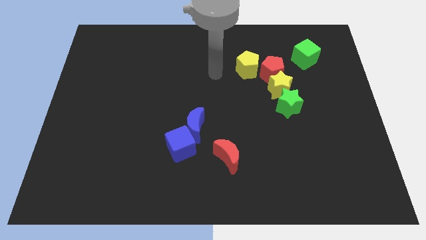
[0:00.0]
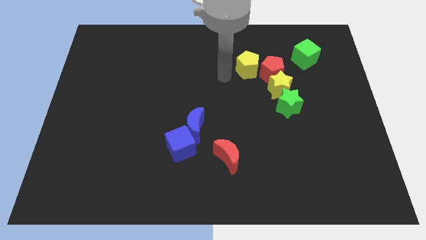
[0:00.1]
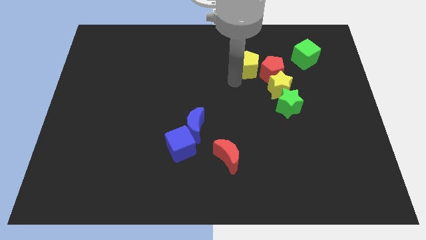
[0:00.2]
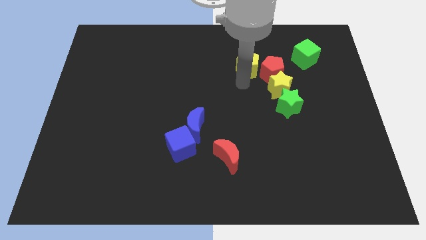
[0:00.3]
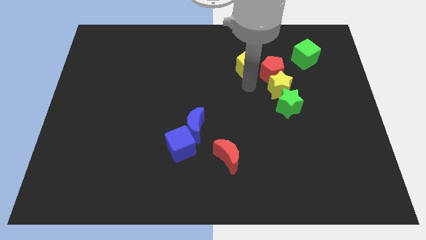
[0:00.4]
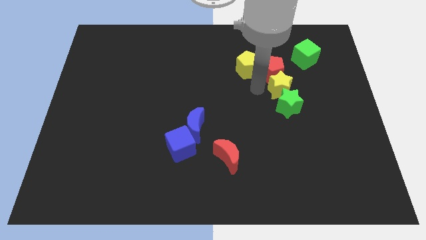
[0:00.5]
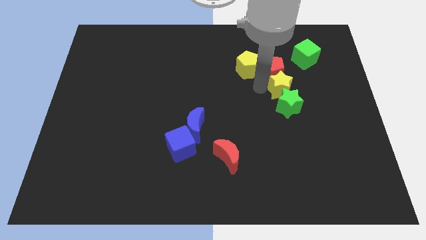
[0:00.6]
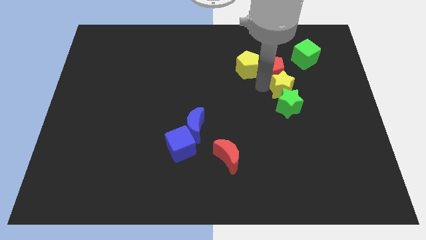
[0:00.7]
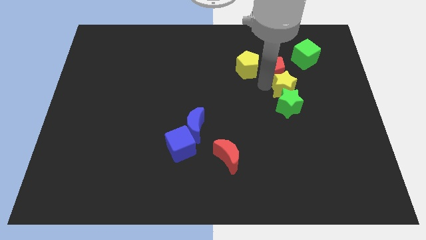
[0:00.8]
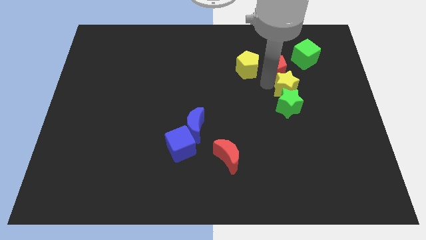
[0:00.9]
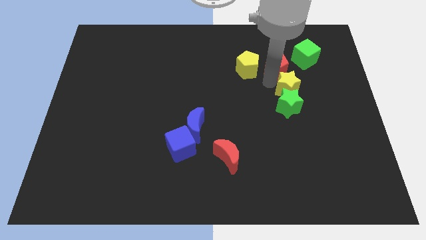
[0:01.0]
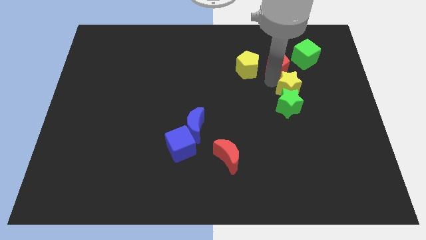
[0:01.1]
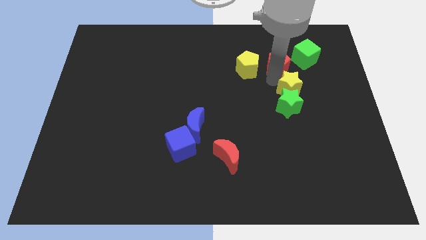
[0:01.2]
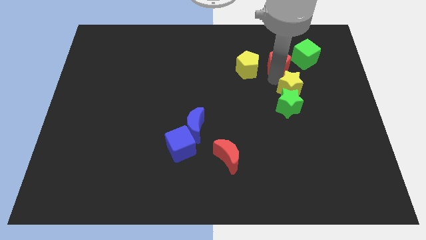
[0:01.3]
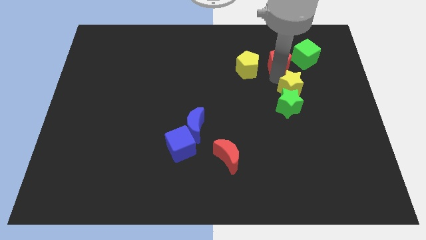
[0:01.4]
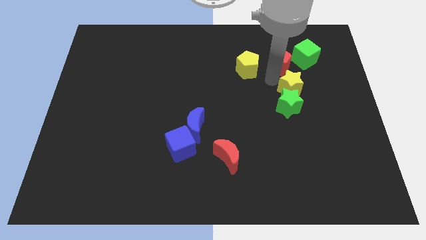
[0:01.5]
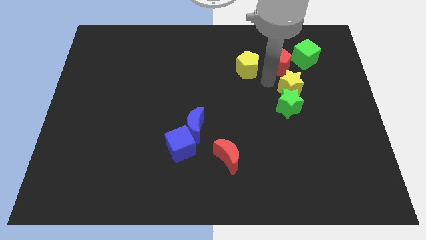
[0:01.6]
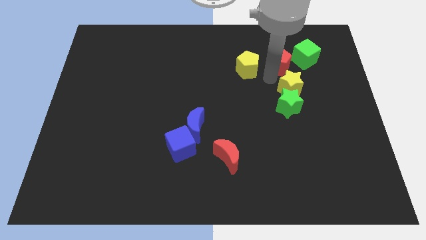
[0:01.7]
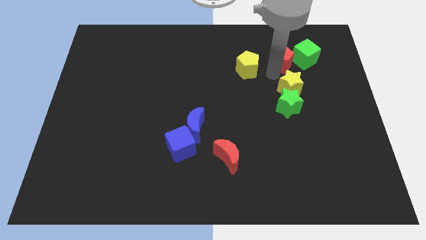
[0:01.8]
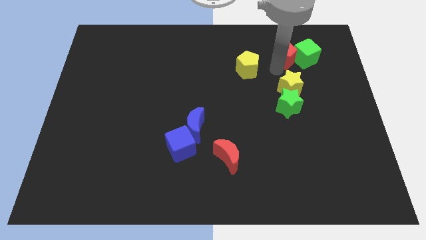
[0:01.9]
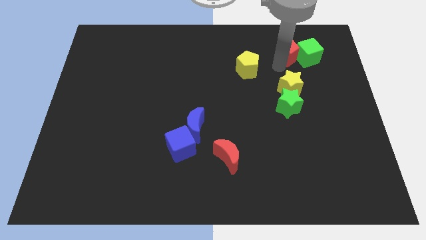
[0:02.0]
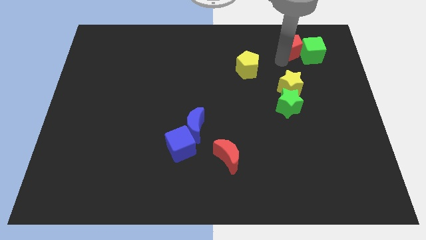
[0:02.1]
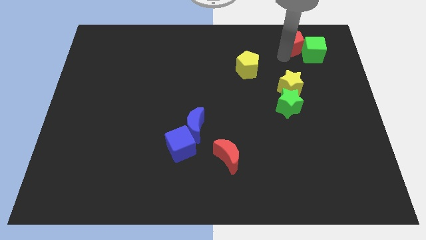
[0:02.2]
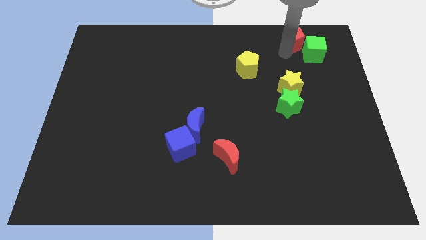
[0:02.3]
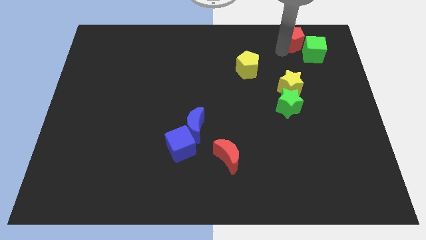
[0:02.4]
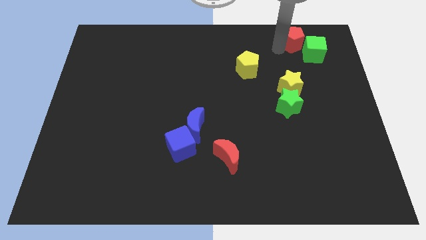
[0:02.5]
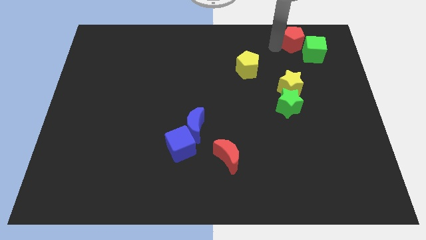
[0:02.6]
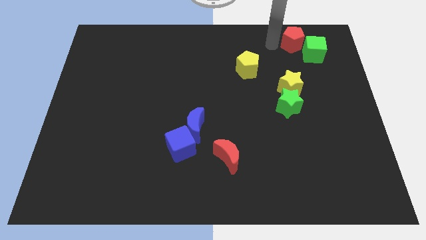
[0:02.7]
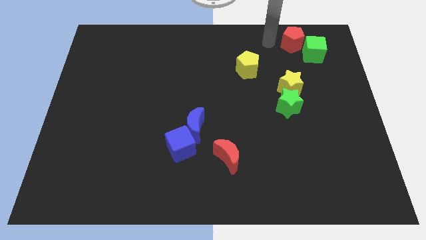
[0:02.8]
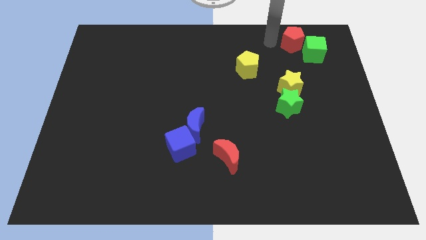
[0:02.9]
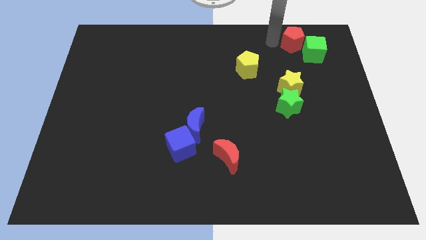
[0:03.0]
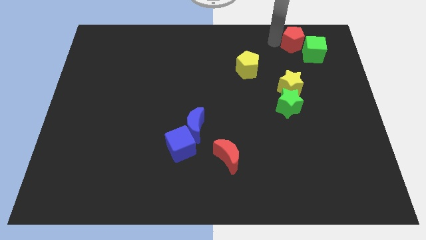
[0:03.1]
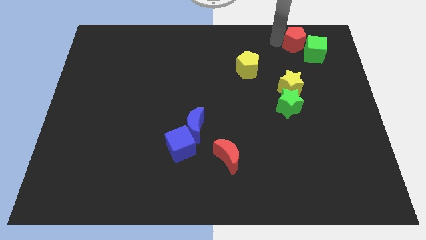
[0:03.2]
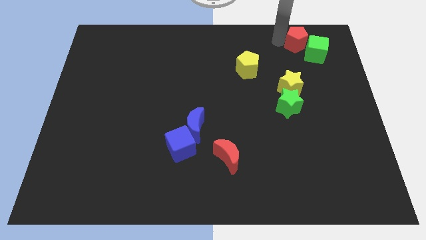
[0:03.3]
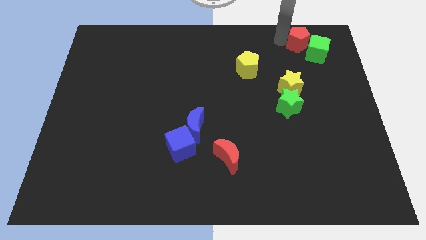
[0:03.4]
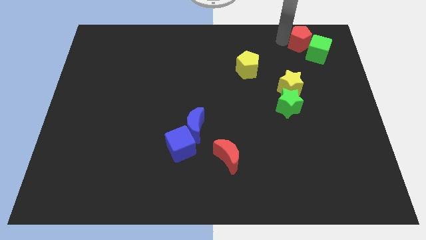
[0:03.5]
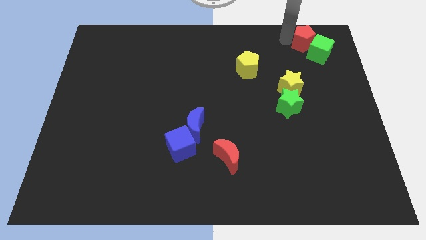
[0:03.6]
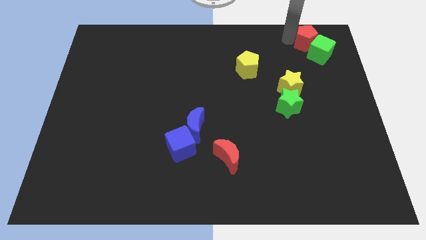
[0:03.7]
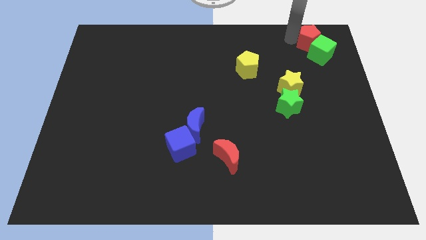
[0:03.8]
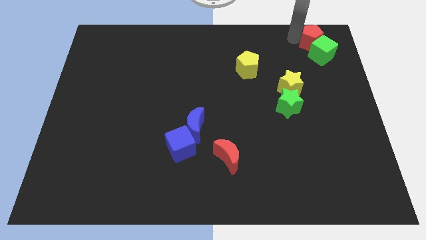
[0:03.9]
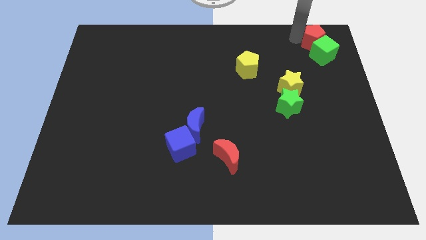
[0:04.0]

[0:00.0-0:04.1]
slide the red pentagon to the upper right corner

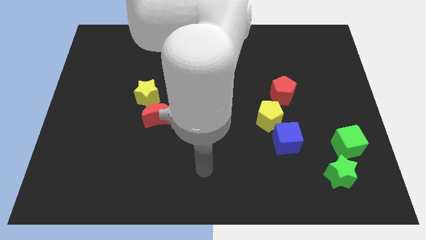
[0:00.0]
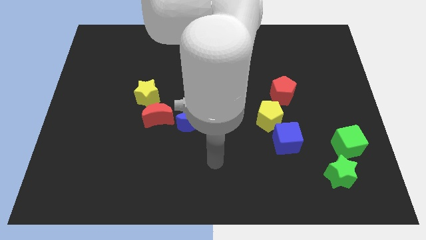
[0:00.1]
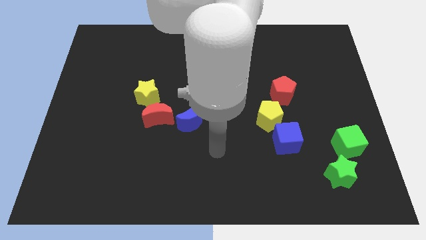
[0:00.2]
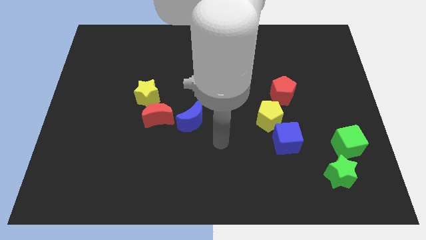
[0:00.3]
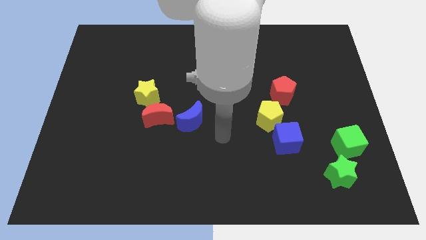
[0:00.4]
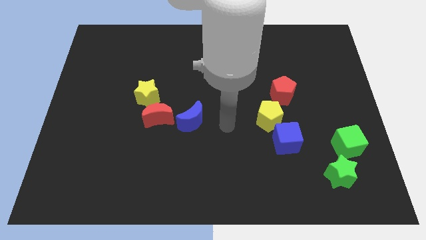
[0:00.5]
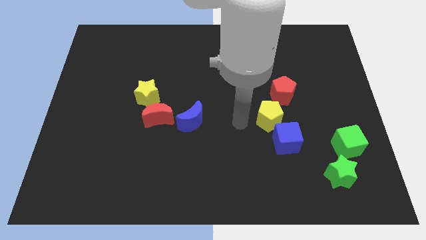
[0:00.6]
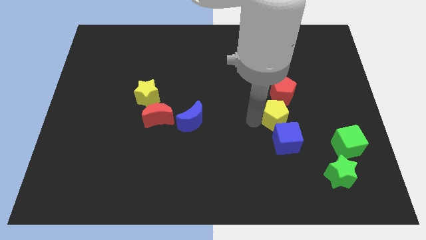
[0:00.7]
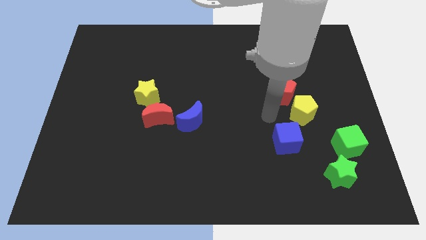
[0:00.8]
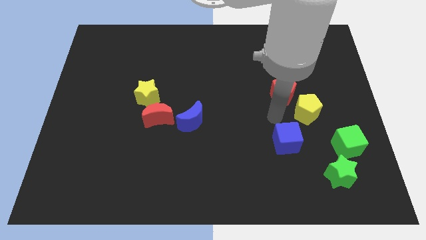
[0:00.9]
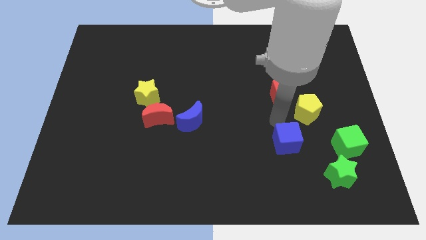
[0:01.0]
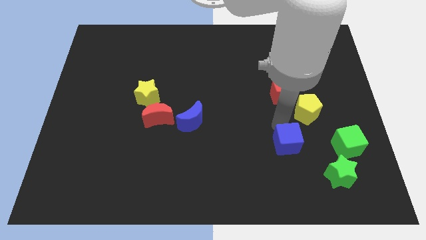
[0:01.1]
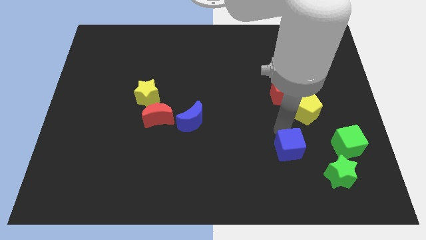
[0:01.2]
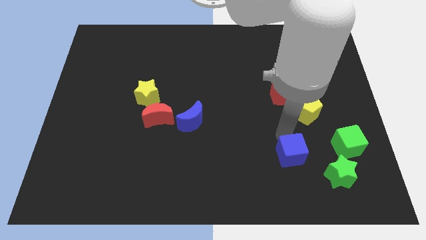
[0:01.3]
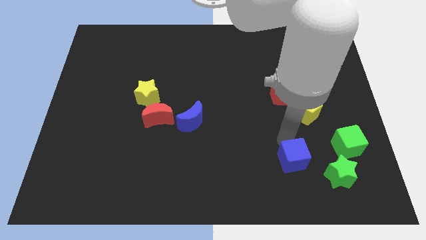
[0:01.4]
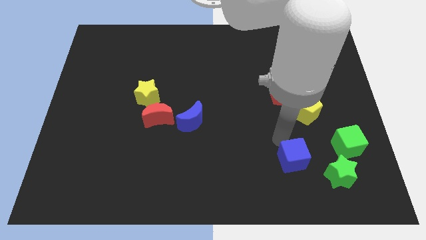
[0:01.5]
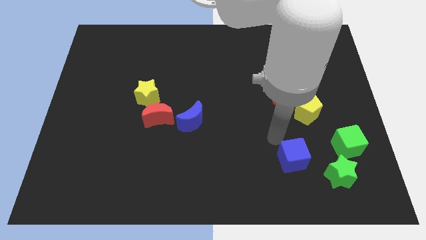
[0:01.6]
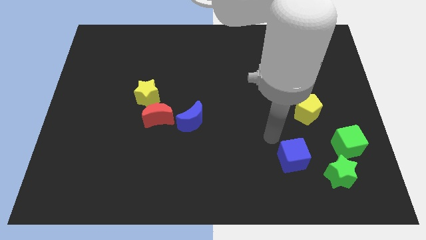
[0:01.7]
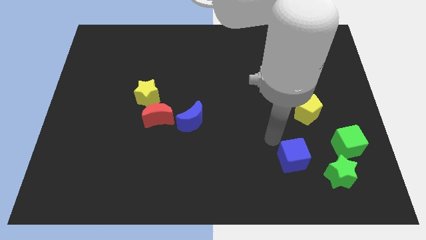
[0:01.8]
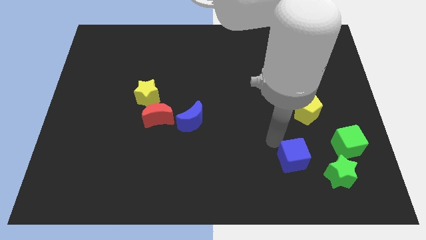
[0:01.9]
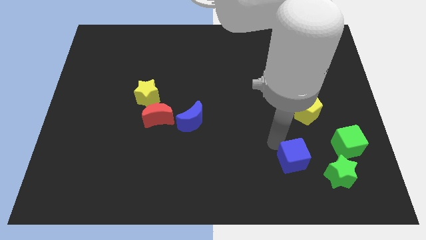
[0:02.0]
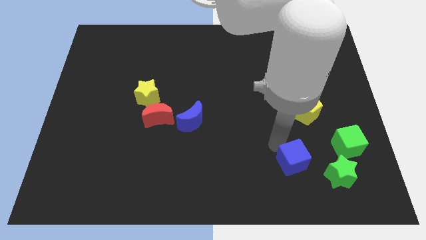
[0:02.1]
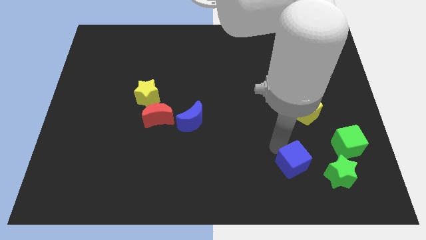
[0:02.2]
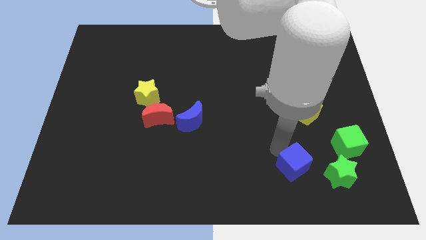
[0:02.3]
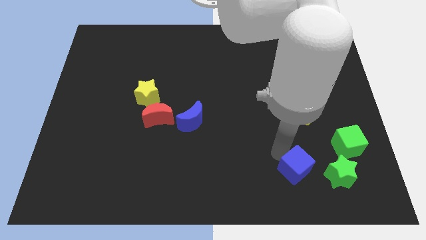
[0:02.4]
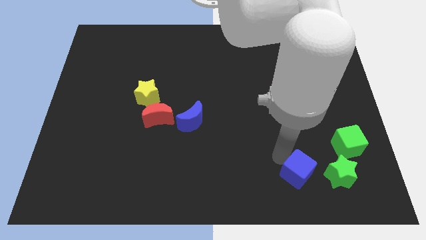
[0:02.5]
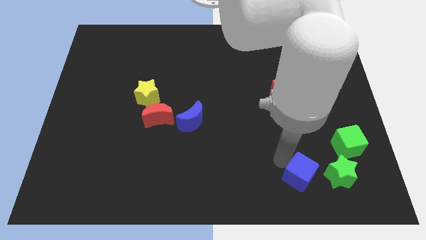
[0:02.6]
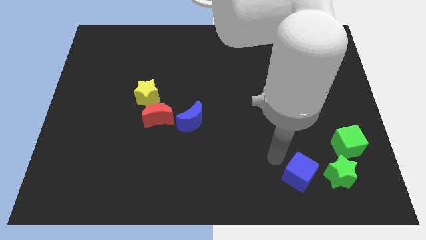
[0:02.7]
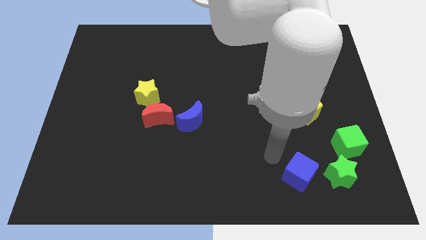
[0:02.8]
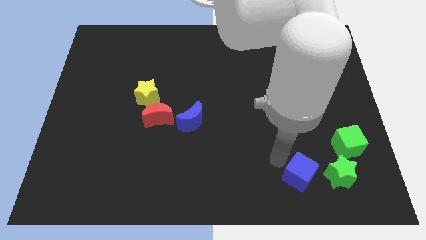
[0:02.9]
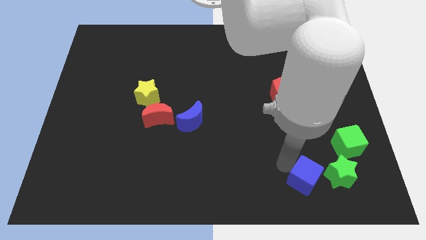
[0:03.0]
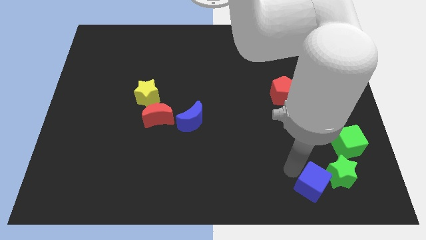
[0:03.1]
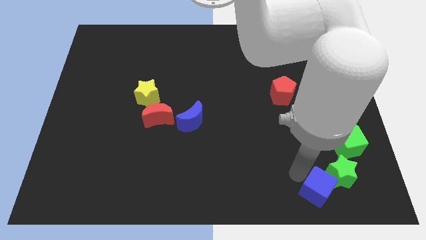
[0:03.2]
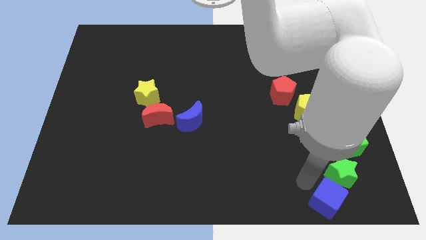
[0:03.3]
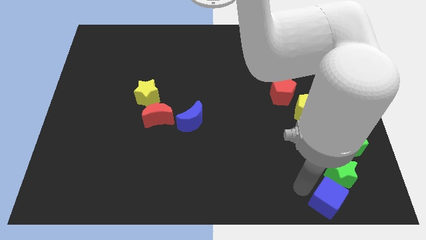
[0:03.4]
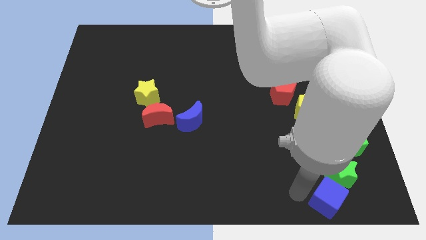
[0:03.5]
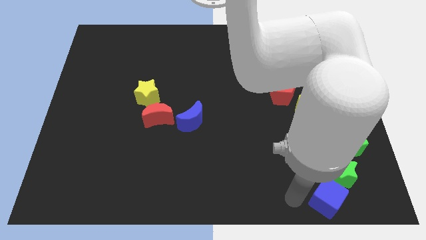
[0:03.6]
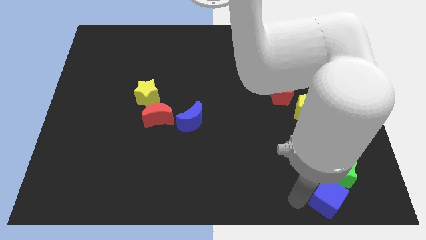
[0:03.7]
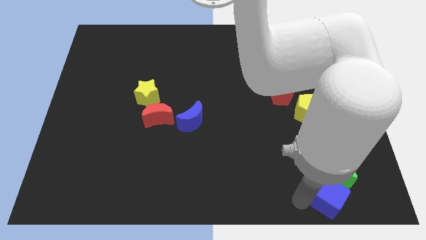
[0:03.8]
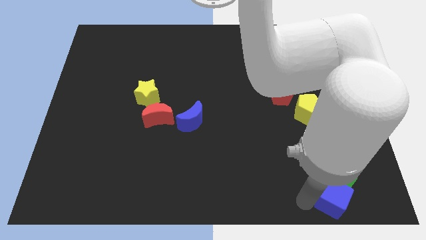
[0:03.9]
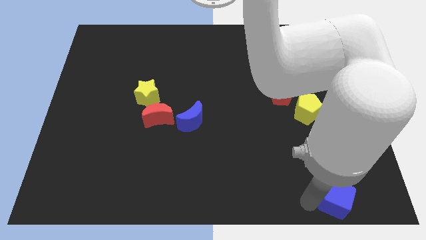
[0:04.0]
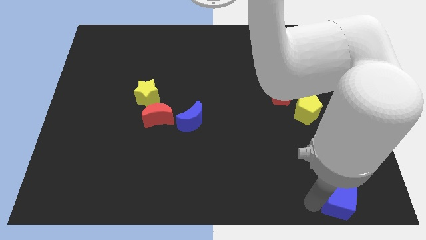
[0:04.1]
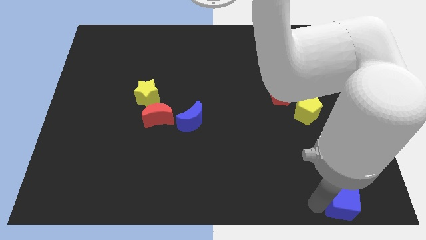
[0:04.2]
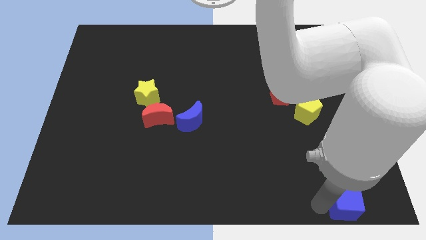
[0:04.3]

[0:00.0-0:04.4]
push the blue cube to the lower right corner
